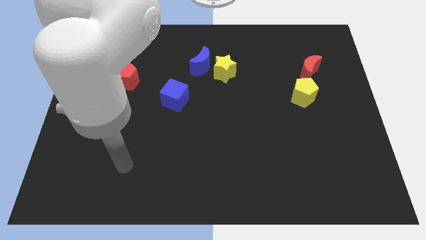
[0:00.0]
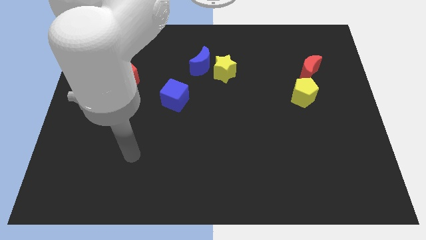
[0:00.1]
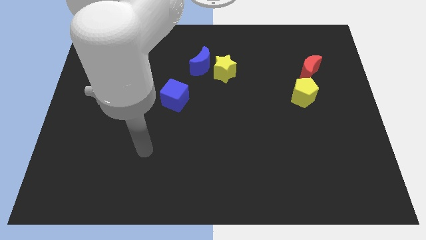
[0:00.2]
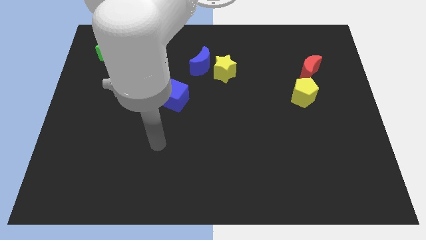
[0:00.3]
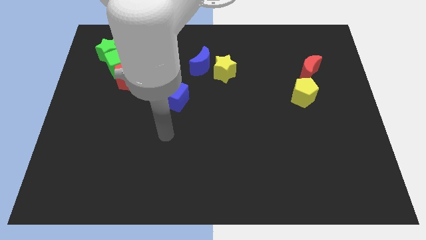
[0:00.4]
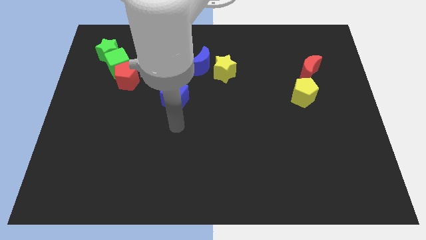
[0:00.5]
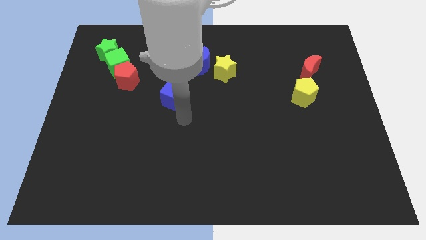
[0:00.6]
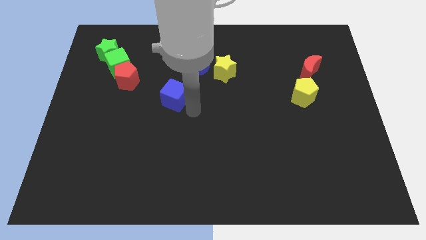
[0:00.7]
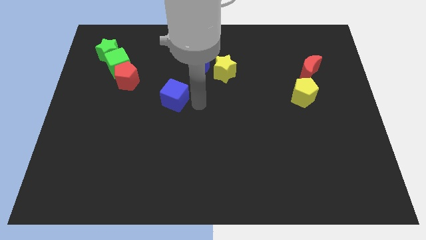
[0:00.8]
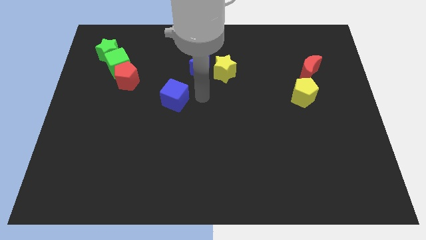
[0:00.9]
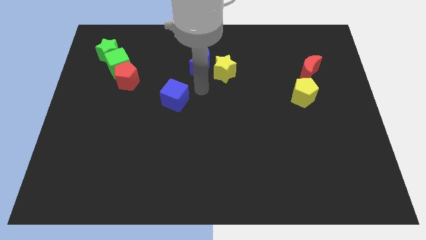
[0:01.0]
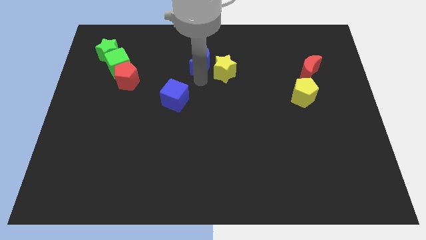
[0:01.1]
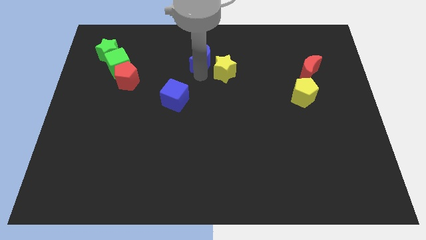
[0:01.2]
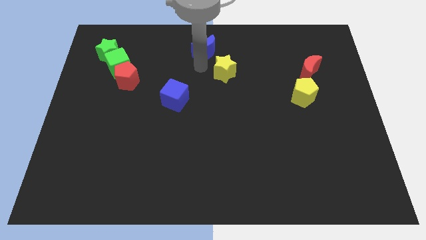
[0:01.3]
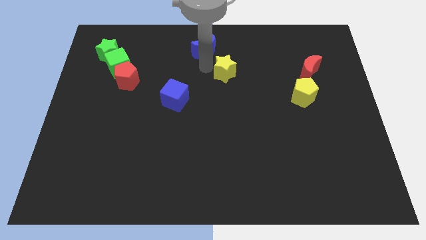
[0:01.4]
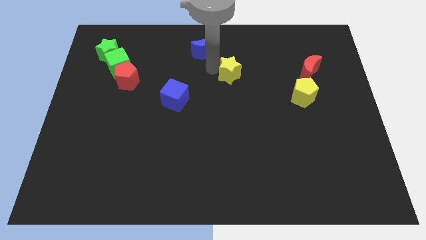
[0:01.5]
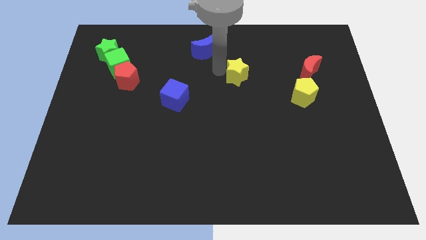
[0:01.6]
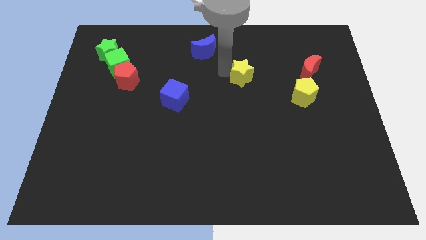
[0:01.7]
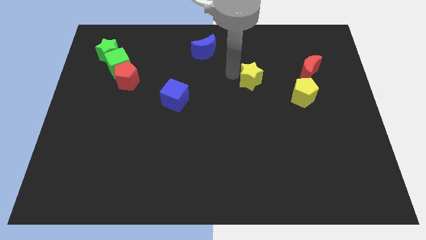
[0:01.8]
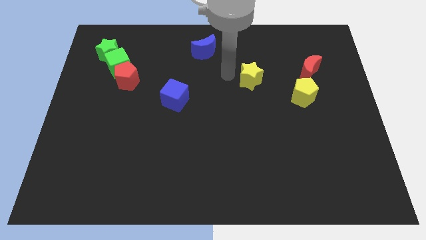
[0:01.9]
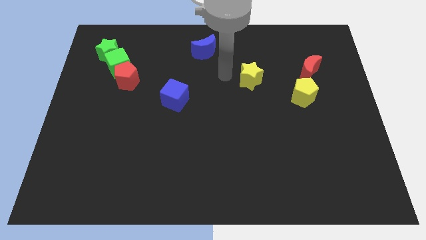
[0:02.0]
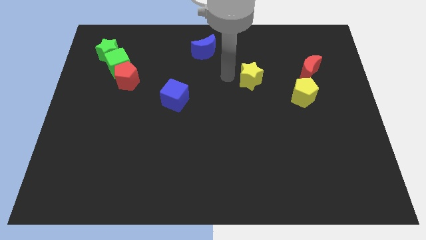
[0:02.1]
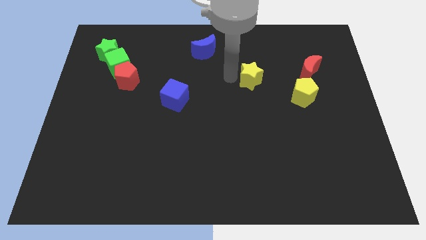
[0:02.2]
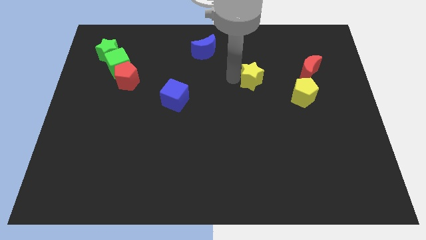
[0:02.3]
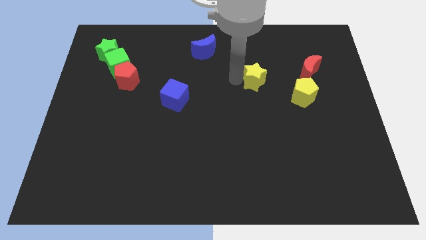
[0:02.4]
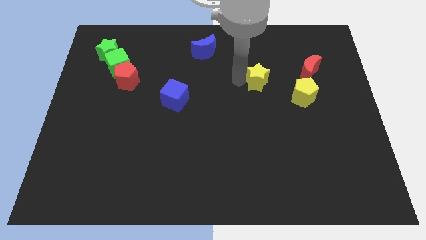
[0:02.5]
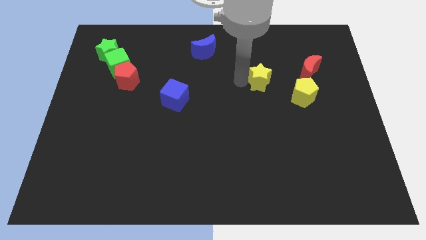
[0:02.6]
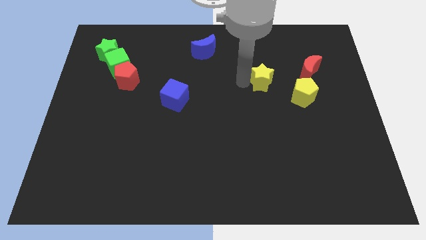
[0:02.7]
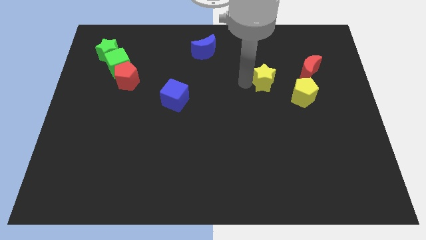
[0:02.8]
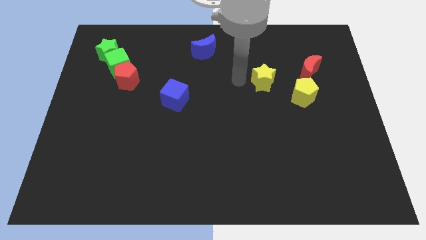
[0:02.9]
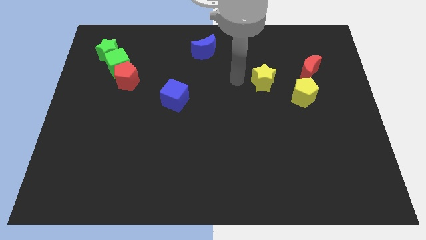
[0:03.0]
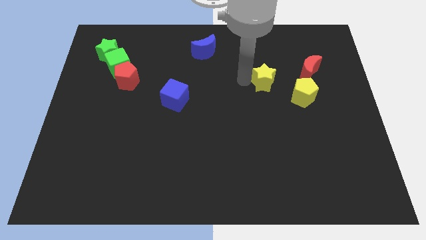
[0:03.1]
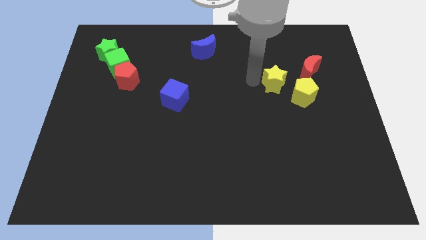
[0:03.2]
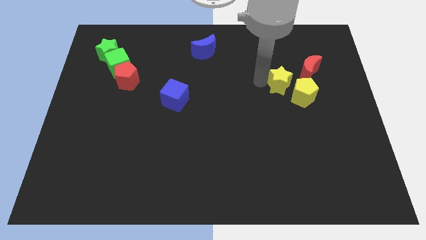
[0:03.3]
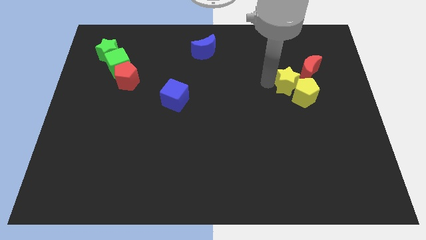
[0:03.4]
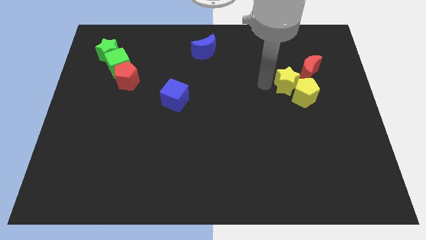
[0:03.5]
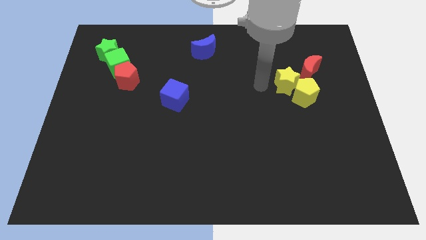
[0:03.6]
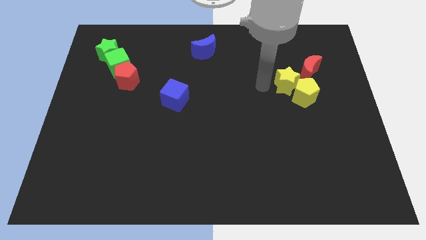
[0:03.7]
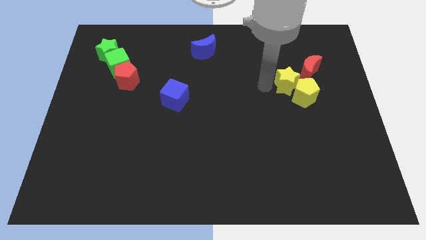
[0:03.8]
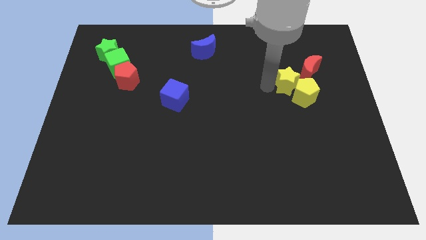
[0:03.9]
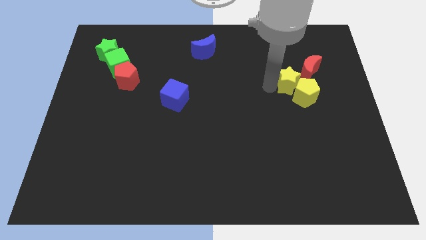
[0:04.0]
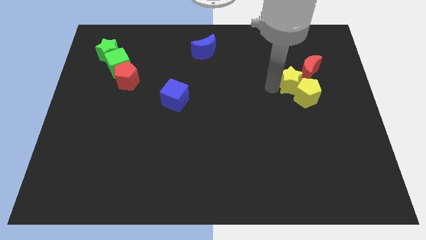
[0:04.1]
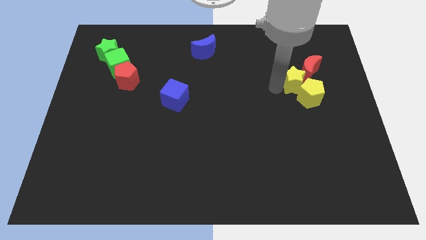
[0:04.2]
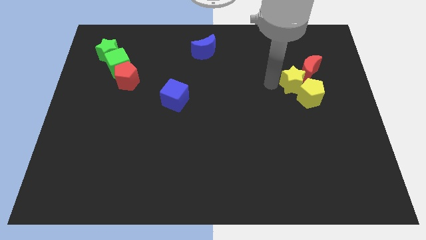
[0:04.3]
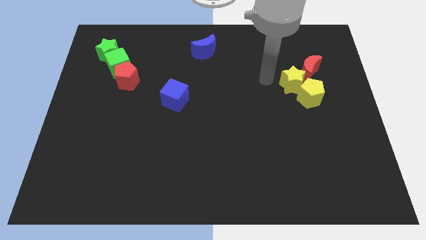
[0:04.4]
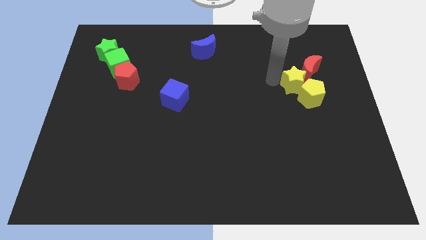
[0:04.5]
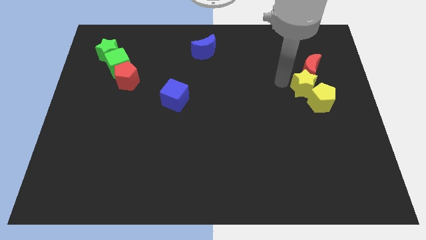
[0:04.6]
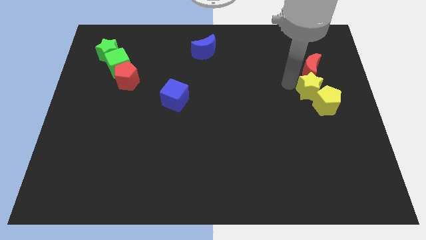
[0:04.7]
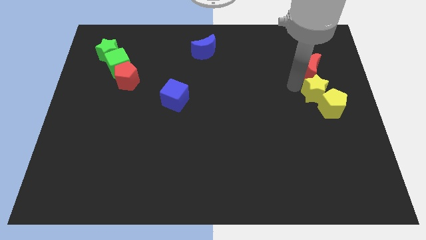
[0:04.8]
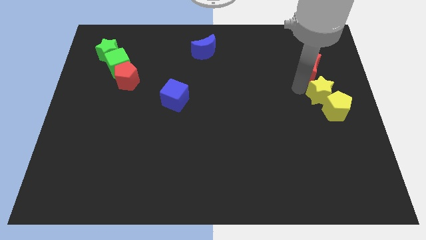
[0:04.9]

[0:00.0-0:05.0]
push the yellow star to the right side of the board

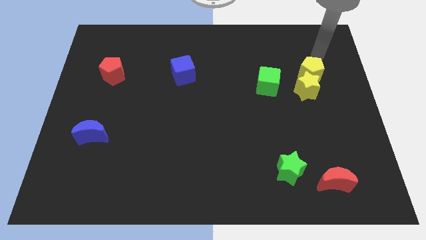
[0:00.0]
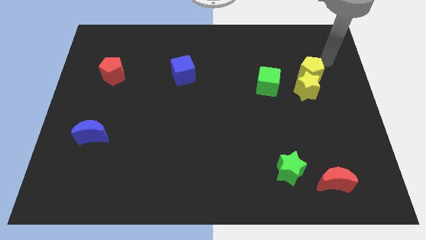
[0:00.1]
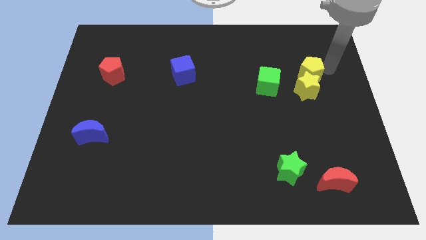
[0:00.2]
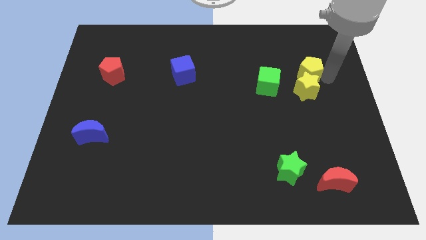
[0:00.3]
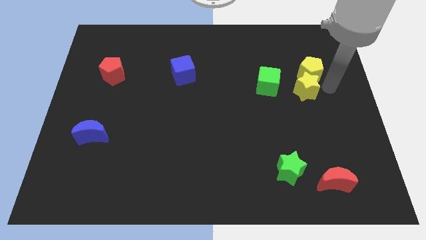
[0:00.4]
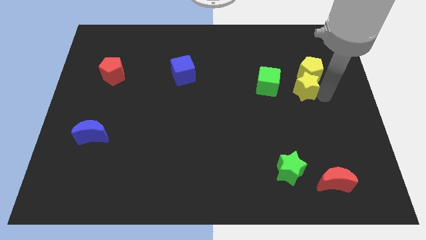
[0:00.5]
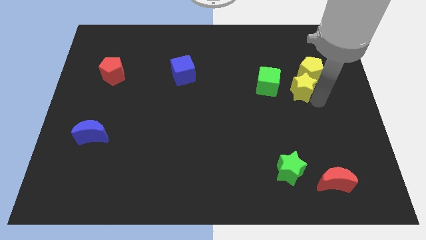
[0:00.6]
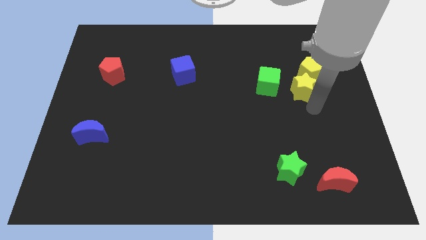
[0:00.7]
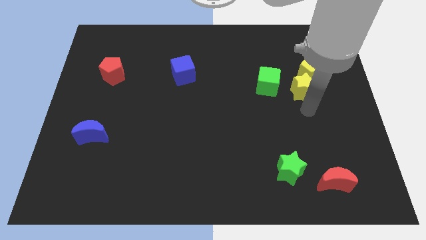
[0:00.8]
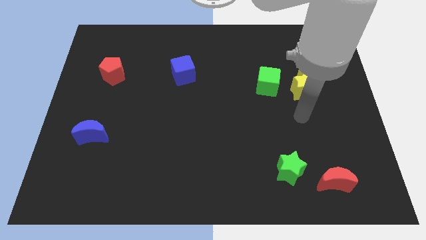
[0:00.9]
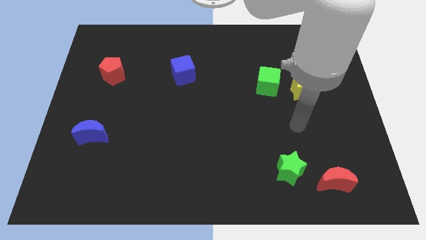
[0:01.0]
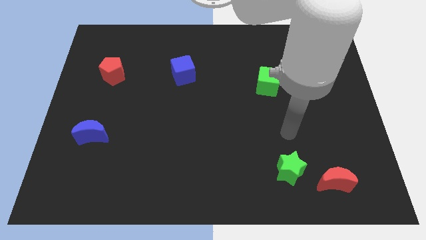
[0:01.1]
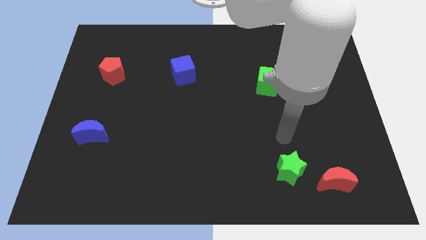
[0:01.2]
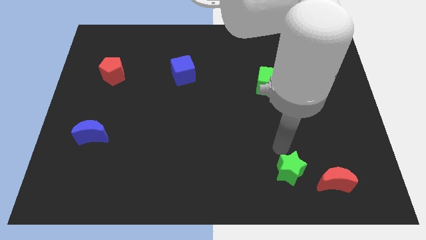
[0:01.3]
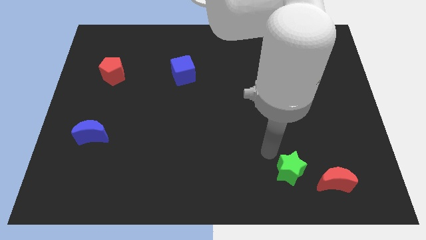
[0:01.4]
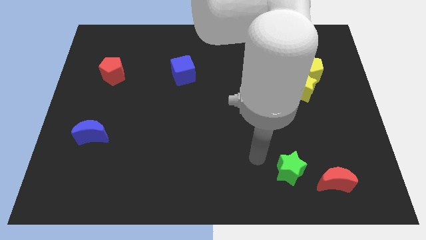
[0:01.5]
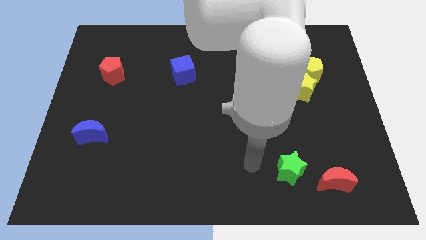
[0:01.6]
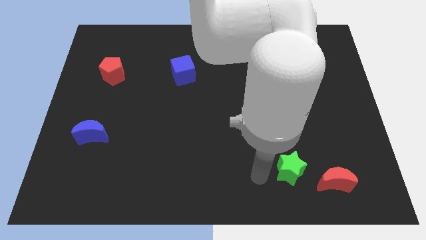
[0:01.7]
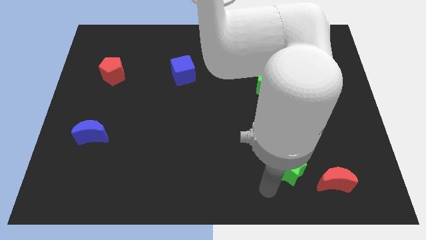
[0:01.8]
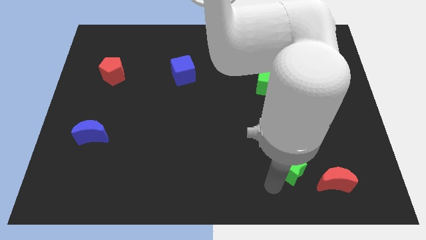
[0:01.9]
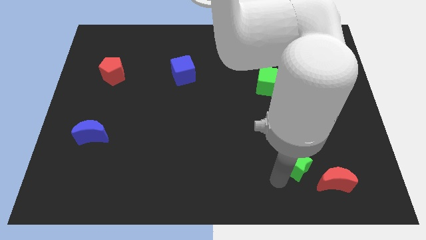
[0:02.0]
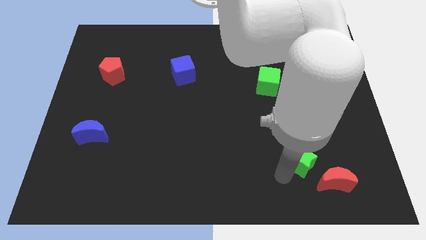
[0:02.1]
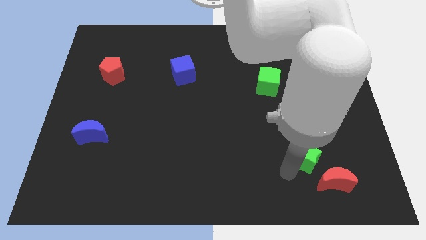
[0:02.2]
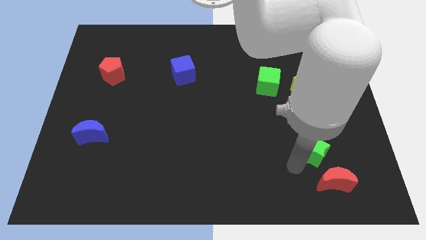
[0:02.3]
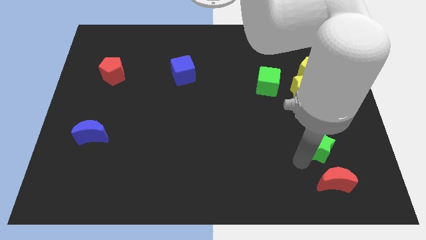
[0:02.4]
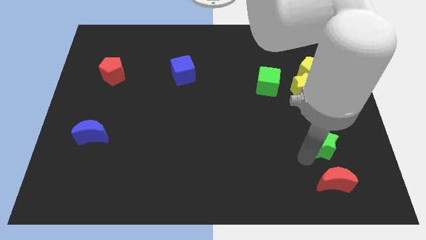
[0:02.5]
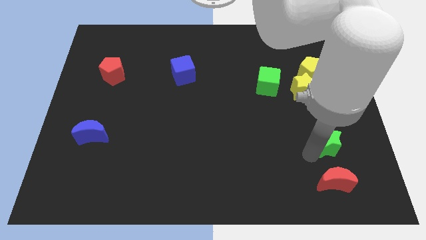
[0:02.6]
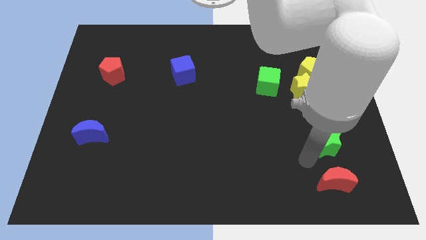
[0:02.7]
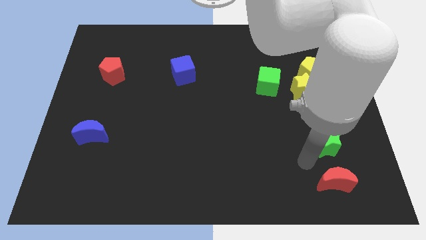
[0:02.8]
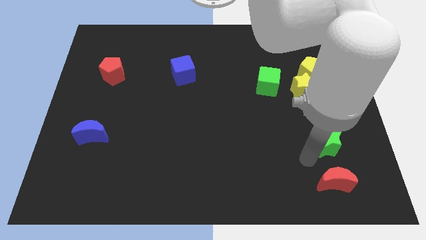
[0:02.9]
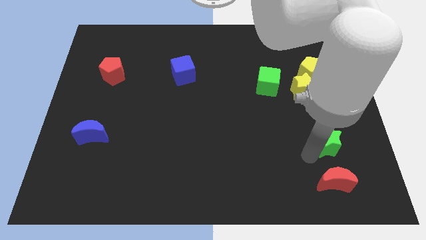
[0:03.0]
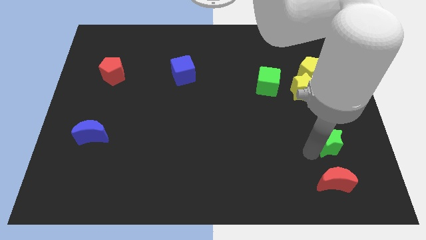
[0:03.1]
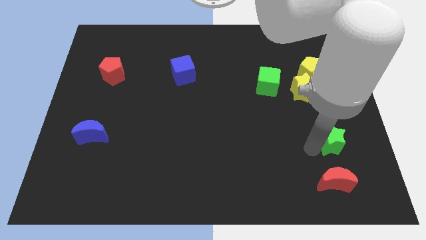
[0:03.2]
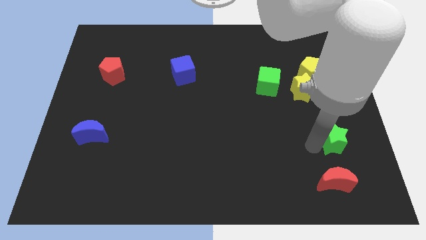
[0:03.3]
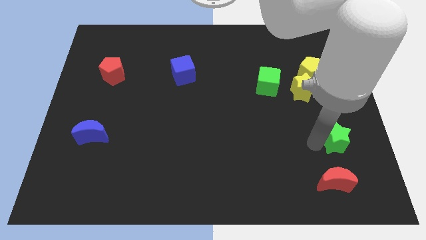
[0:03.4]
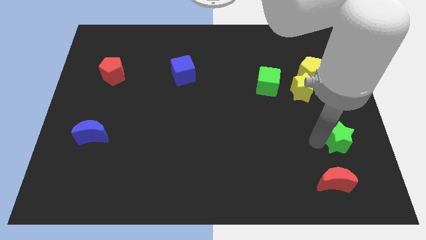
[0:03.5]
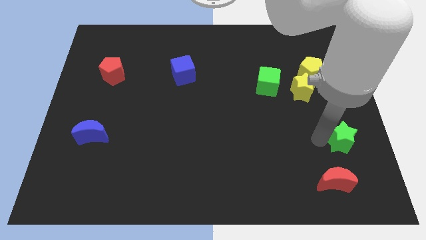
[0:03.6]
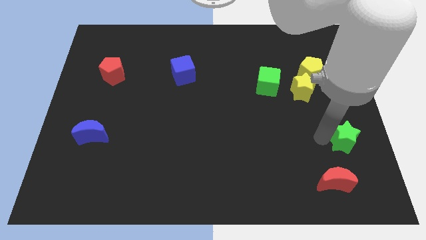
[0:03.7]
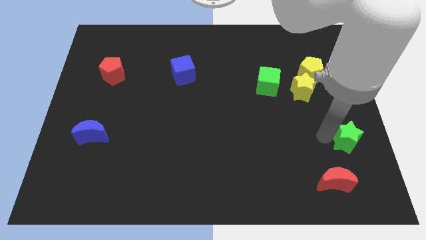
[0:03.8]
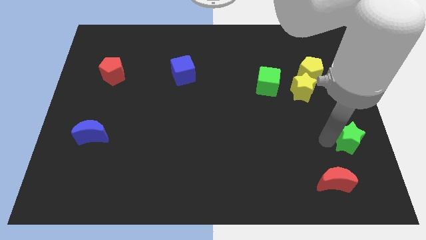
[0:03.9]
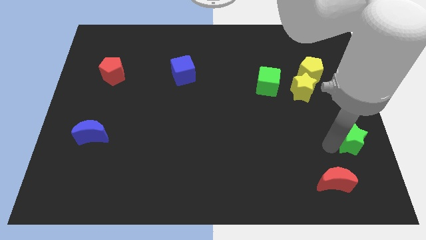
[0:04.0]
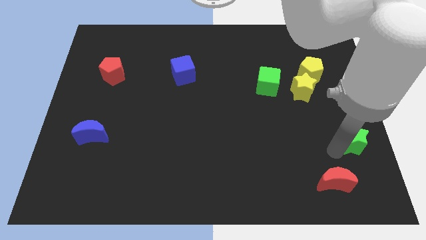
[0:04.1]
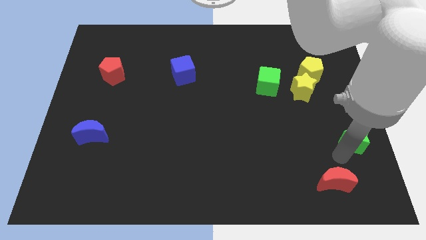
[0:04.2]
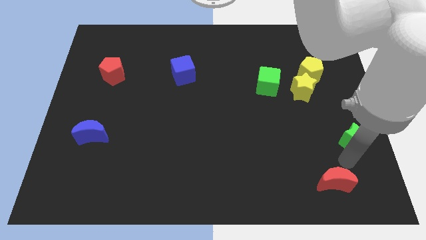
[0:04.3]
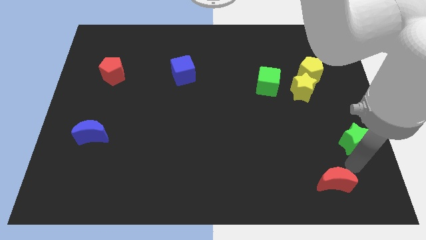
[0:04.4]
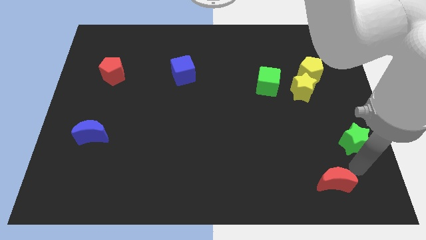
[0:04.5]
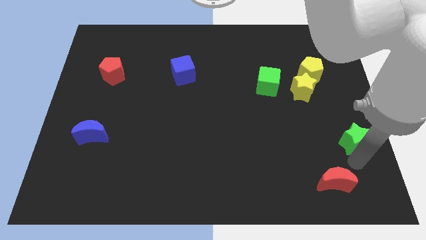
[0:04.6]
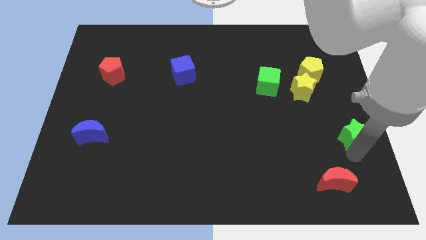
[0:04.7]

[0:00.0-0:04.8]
move the green star to the right side of the board
